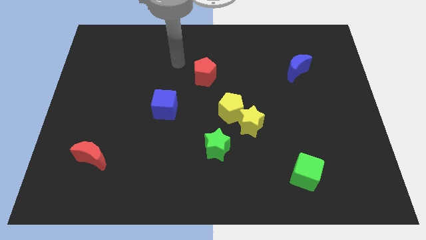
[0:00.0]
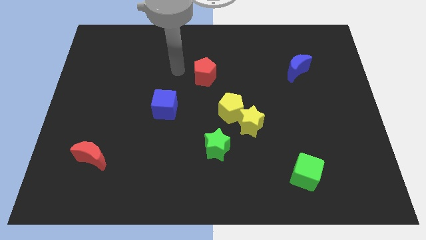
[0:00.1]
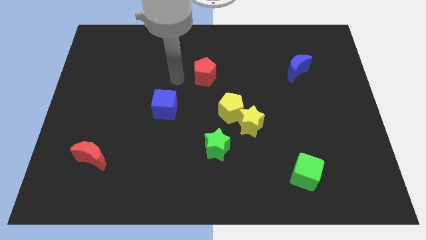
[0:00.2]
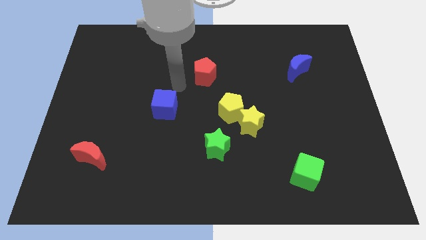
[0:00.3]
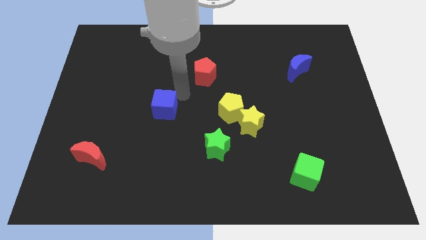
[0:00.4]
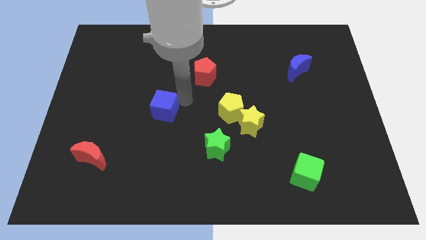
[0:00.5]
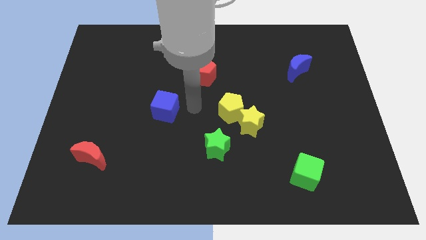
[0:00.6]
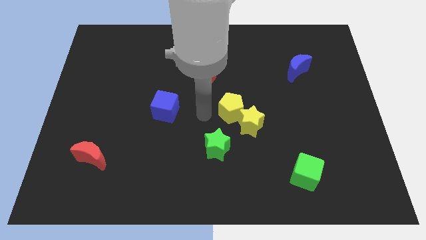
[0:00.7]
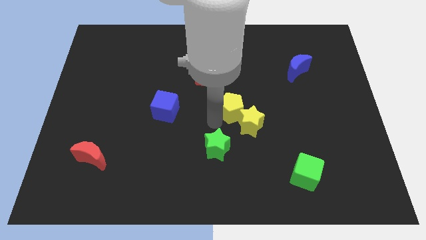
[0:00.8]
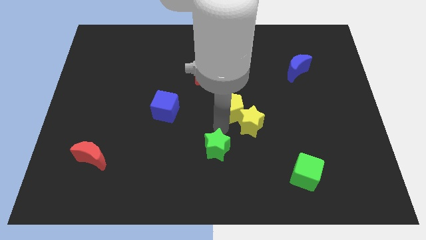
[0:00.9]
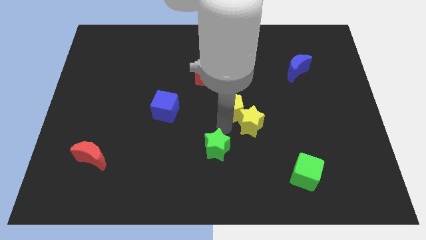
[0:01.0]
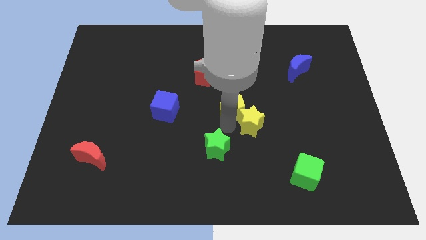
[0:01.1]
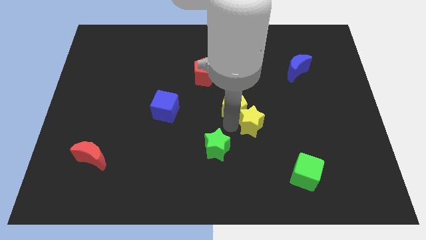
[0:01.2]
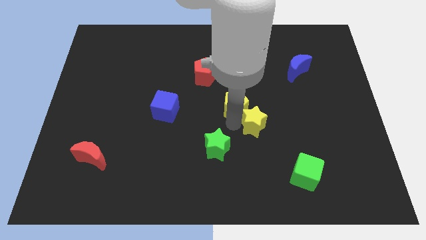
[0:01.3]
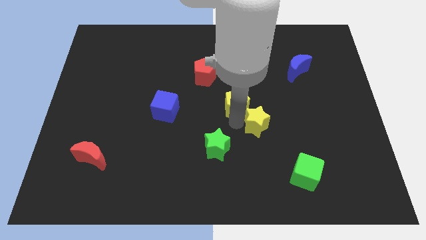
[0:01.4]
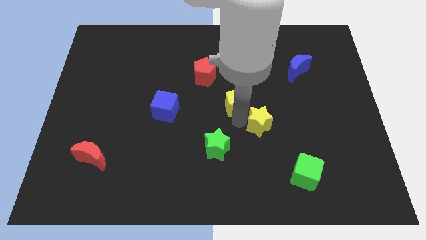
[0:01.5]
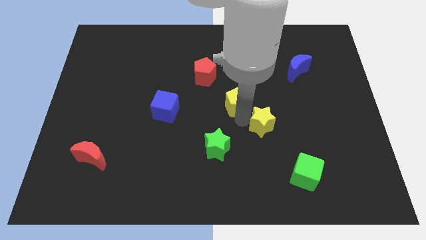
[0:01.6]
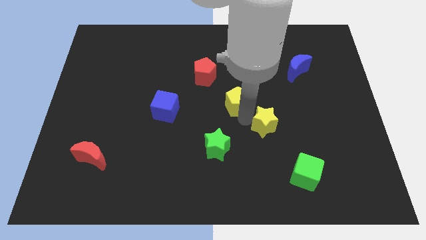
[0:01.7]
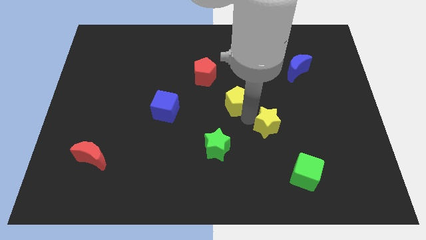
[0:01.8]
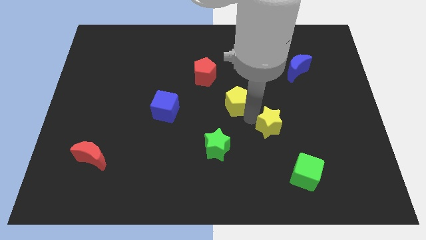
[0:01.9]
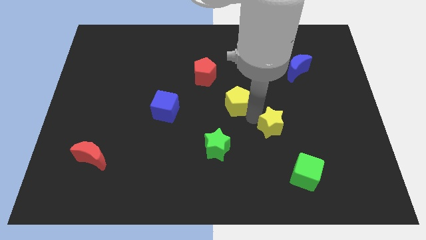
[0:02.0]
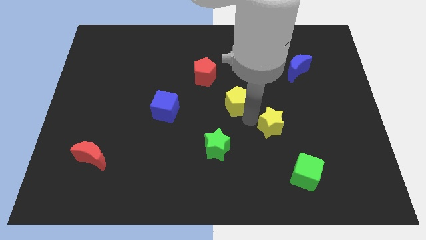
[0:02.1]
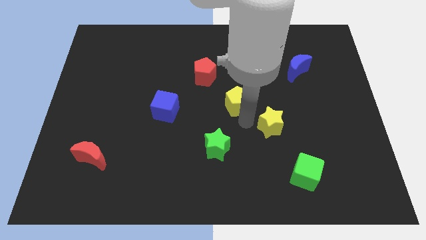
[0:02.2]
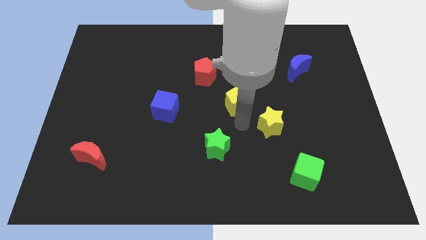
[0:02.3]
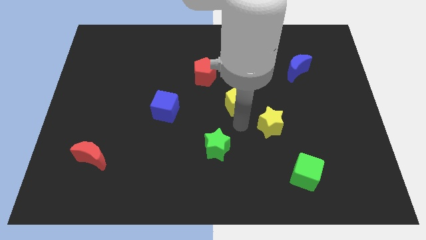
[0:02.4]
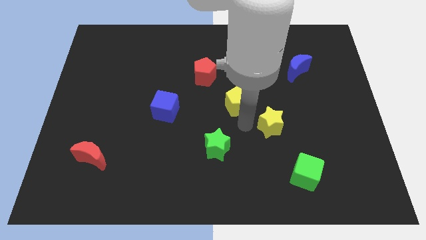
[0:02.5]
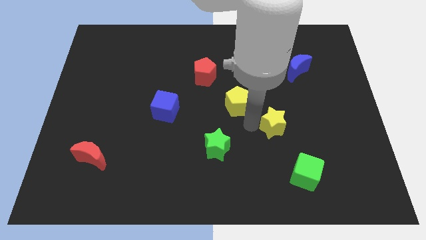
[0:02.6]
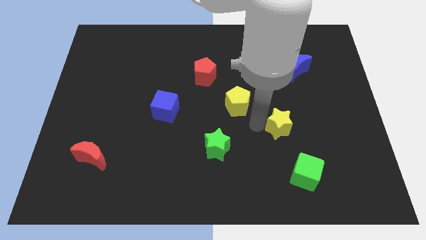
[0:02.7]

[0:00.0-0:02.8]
move the yellow star away from the yellow pentagon and green star

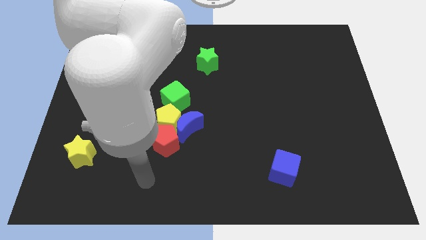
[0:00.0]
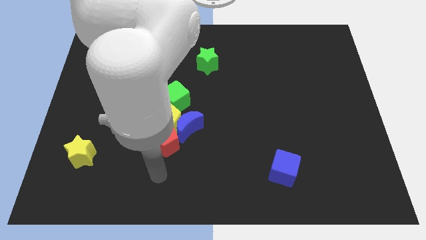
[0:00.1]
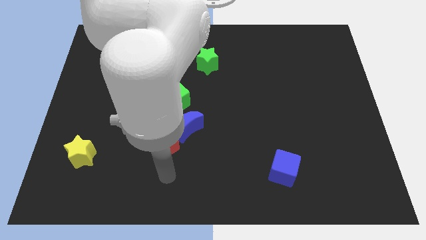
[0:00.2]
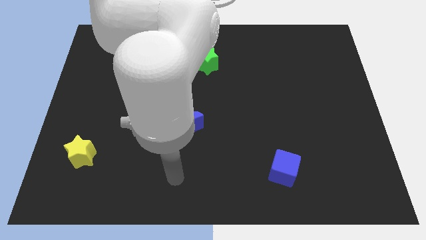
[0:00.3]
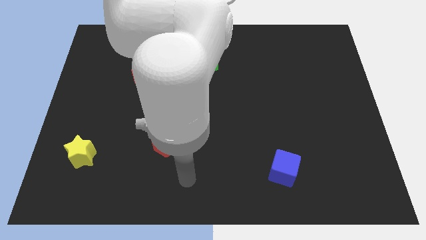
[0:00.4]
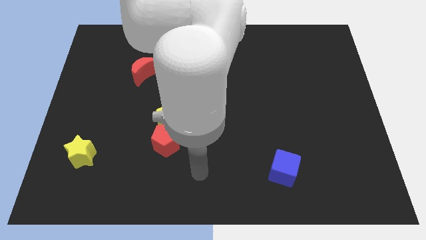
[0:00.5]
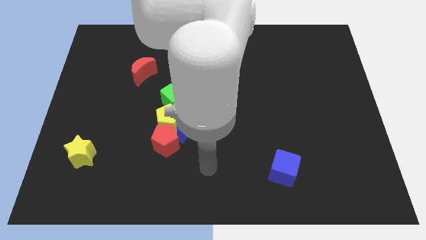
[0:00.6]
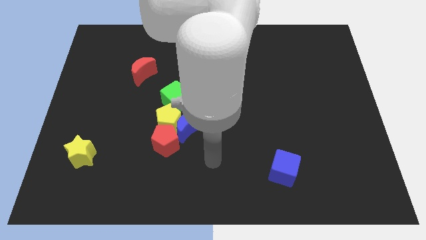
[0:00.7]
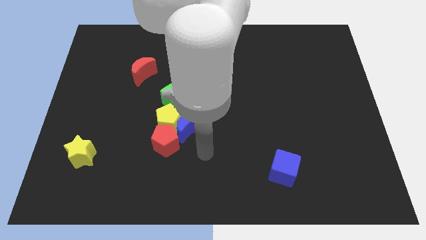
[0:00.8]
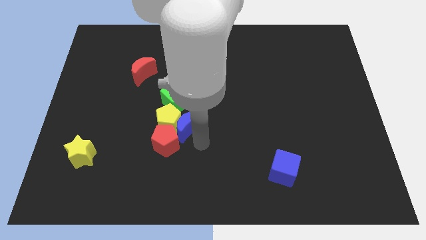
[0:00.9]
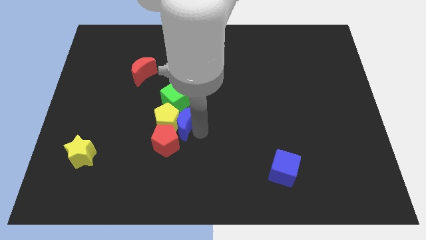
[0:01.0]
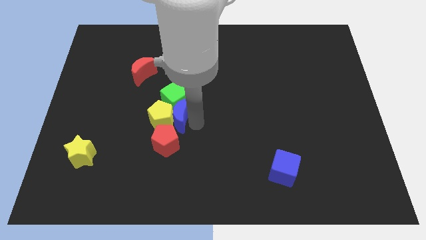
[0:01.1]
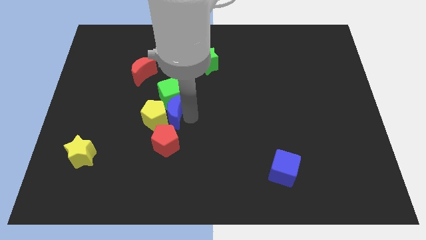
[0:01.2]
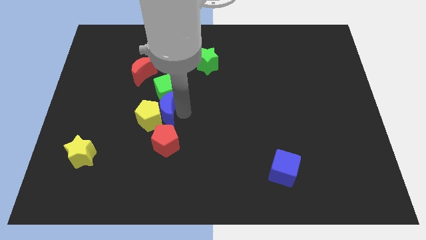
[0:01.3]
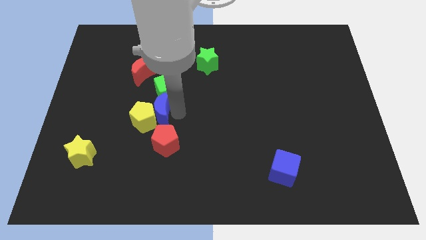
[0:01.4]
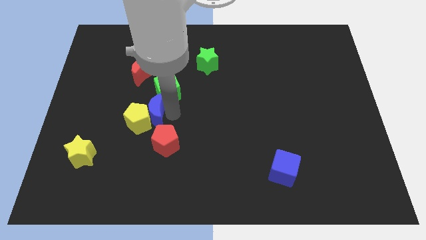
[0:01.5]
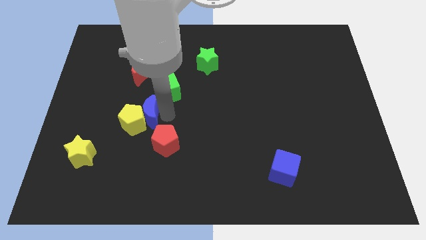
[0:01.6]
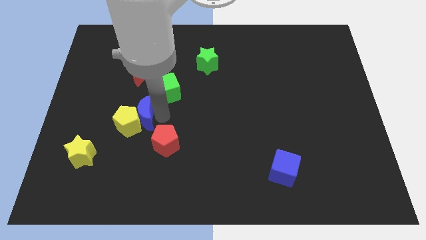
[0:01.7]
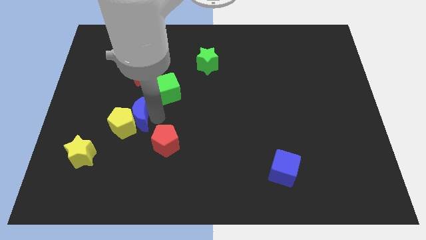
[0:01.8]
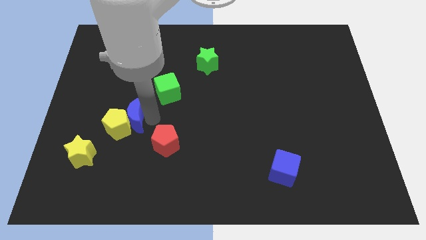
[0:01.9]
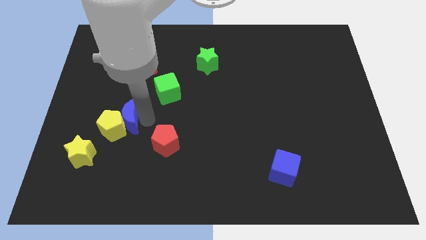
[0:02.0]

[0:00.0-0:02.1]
move the yellow pentagon away from the blue moon, red pentagon, and green cube

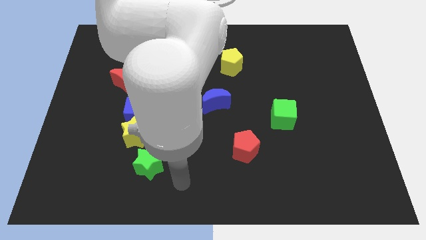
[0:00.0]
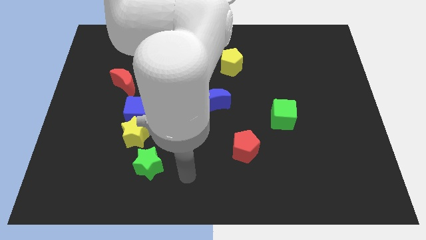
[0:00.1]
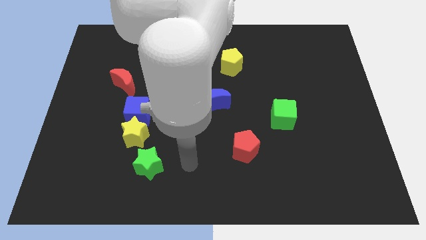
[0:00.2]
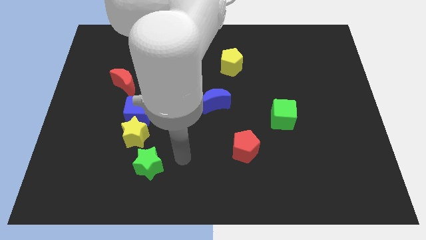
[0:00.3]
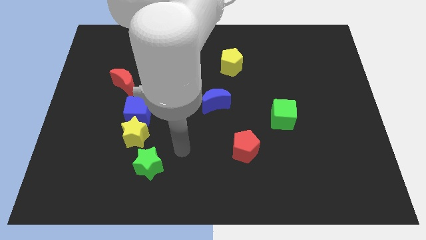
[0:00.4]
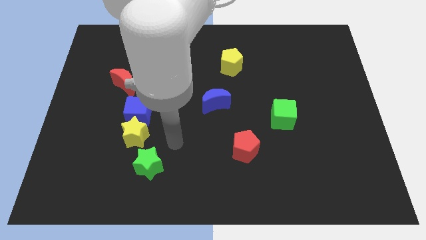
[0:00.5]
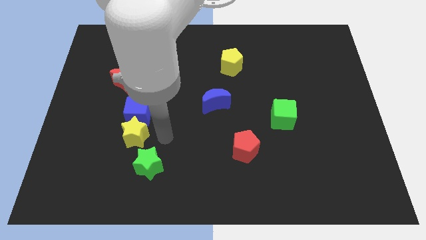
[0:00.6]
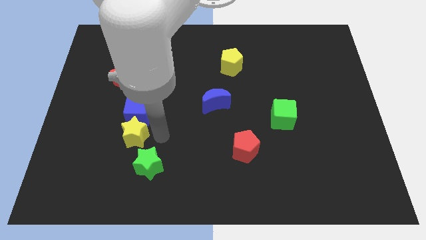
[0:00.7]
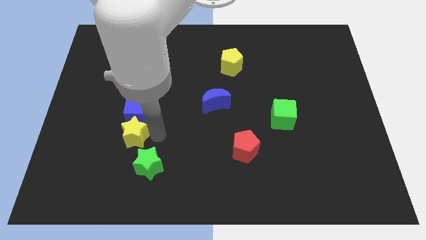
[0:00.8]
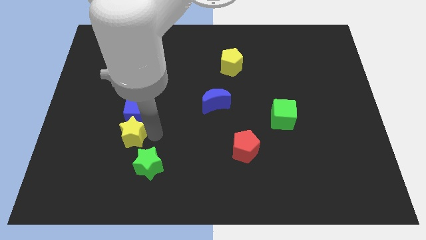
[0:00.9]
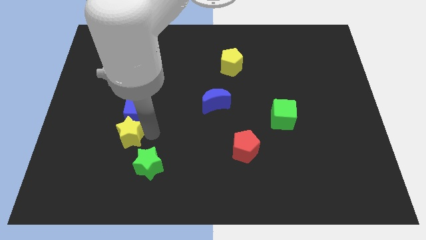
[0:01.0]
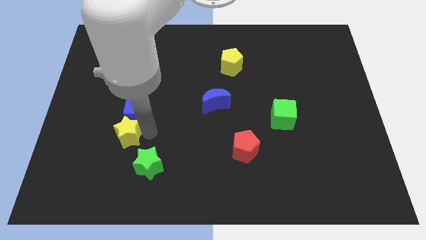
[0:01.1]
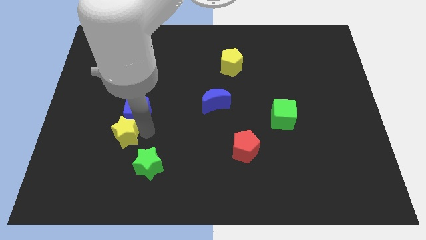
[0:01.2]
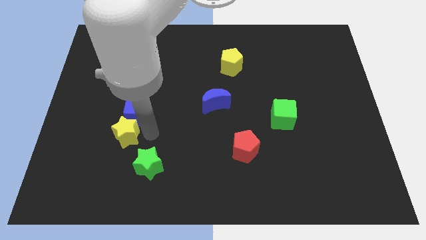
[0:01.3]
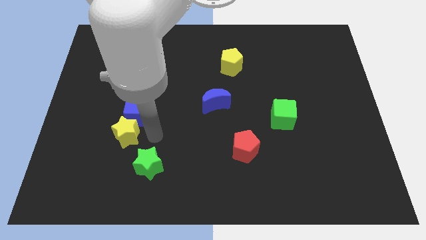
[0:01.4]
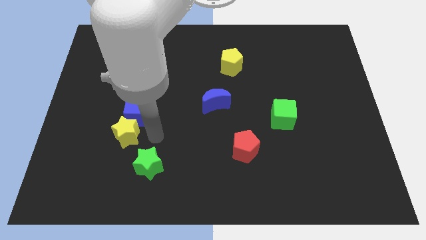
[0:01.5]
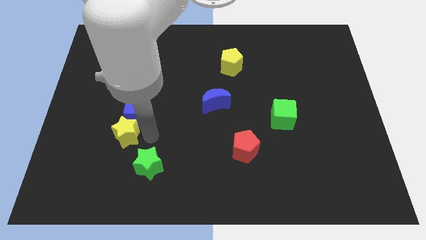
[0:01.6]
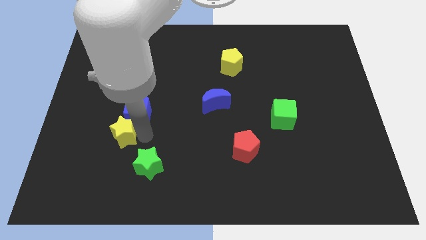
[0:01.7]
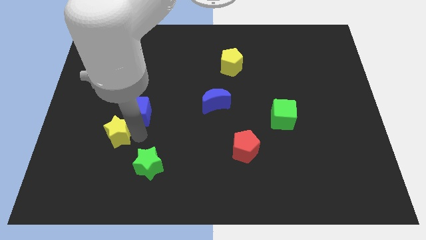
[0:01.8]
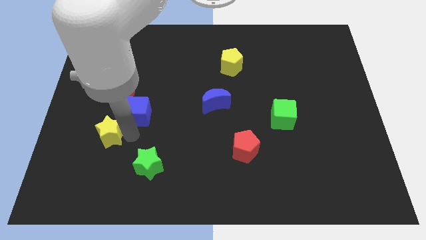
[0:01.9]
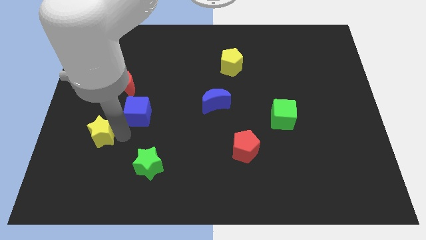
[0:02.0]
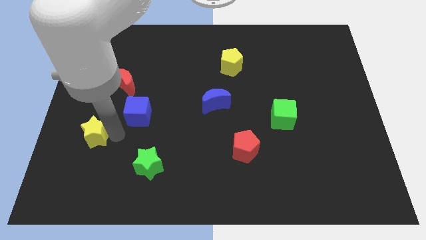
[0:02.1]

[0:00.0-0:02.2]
move the yellow star away from the blue cube and green star

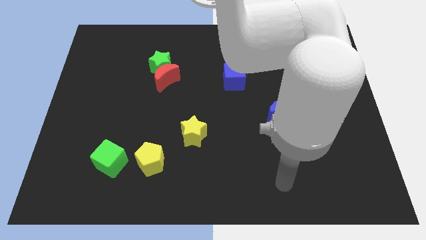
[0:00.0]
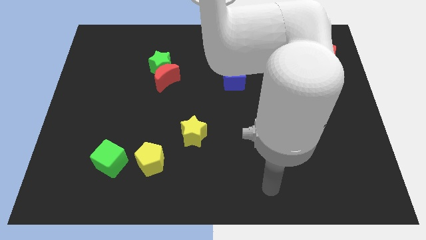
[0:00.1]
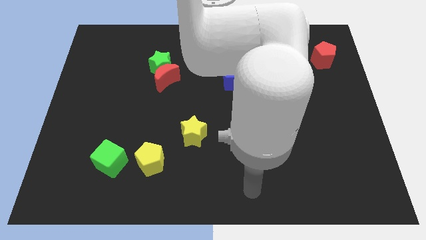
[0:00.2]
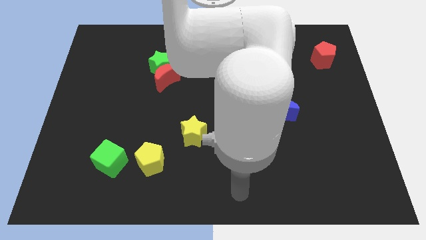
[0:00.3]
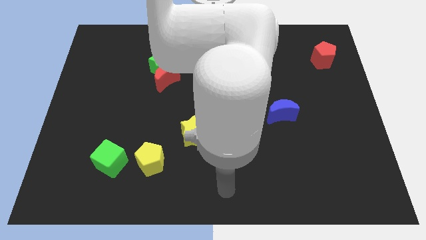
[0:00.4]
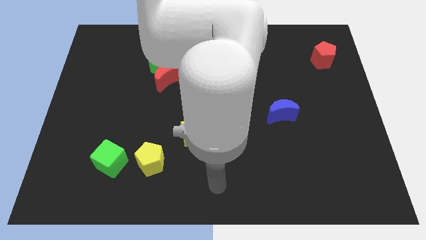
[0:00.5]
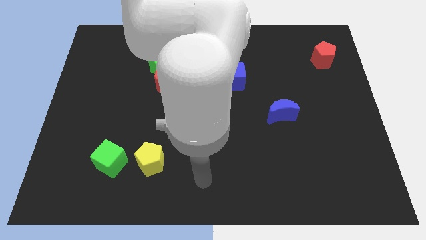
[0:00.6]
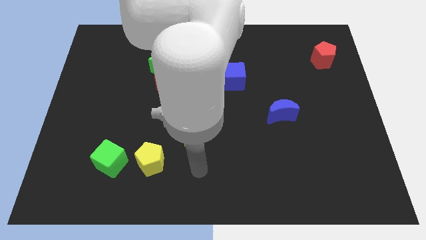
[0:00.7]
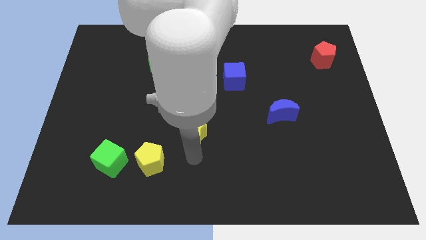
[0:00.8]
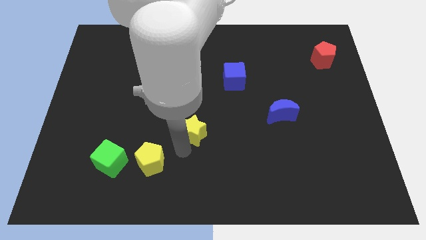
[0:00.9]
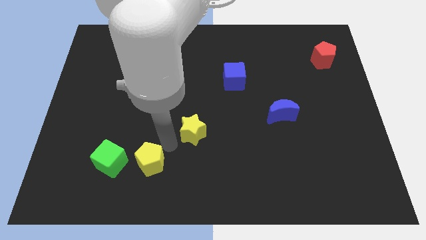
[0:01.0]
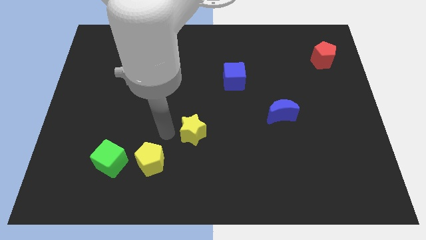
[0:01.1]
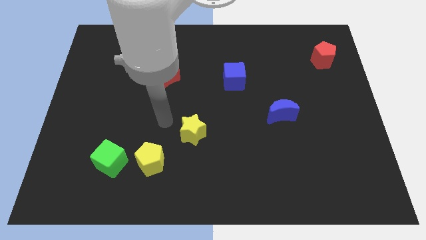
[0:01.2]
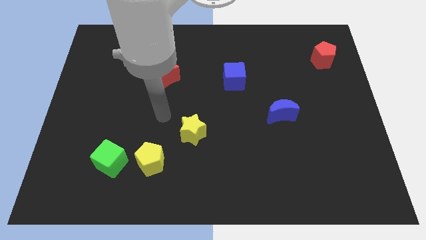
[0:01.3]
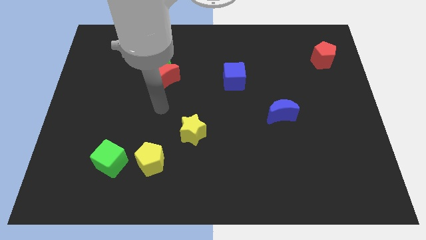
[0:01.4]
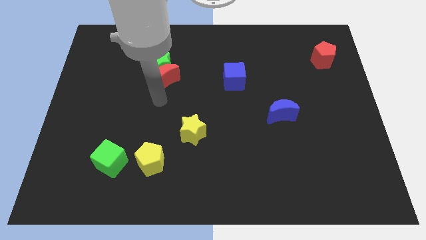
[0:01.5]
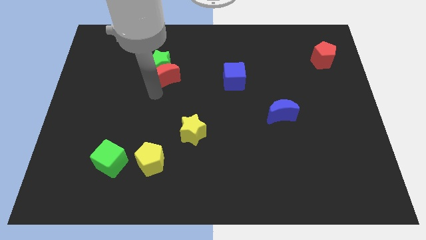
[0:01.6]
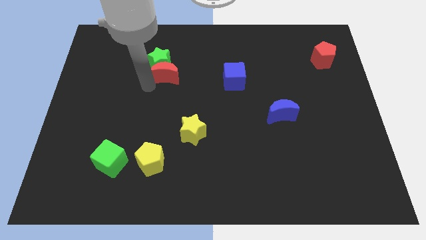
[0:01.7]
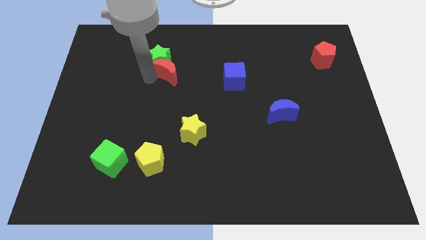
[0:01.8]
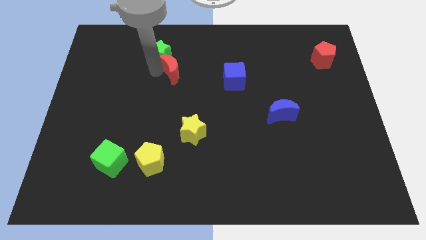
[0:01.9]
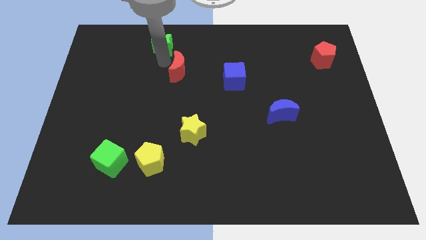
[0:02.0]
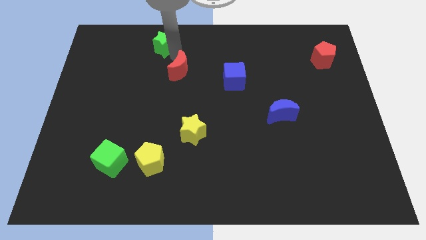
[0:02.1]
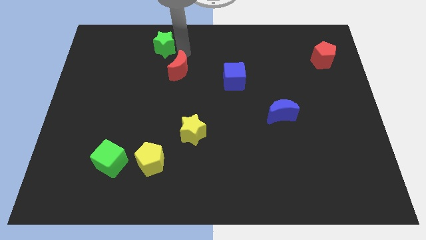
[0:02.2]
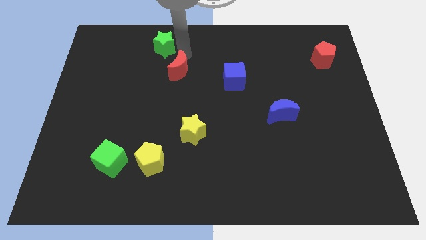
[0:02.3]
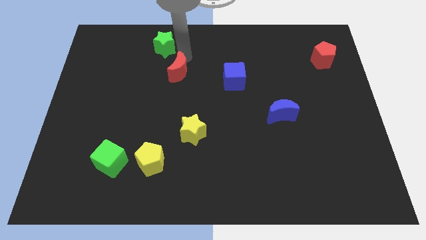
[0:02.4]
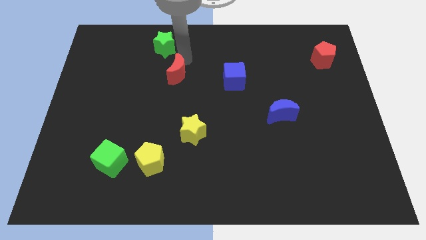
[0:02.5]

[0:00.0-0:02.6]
move the red moon away from the green star
